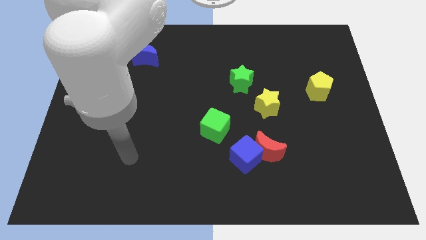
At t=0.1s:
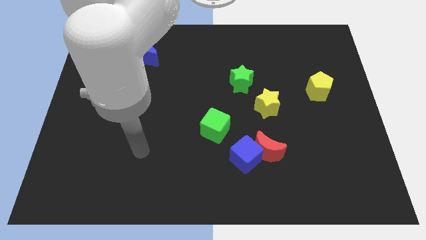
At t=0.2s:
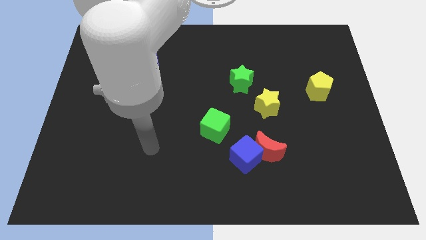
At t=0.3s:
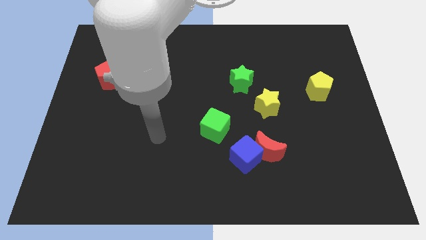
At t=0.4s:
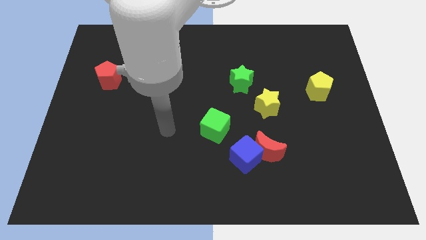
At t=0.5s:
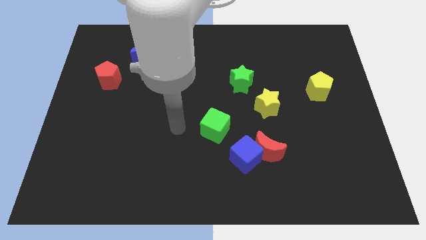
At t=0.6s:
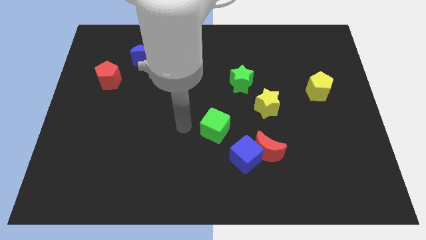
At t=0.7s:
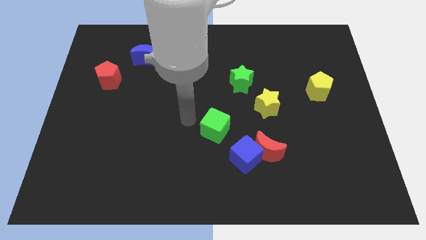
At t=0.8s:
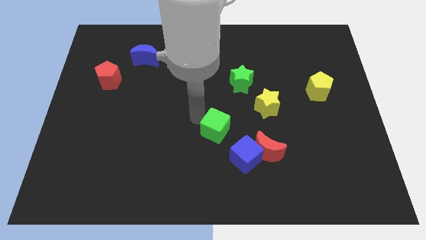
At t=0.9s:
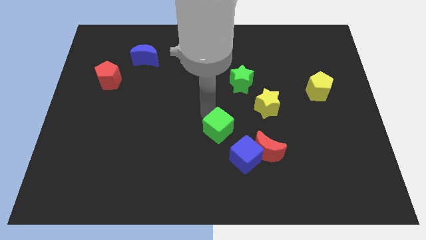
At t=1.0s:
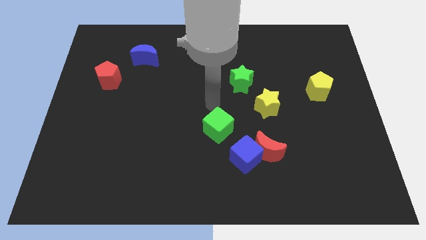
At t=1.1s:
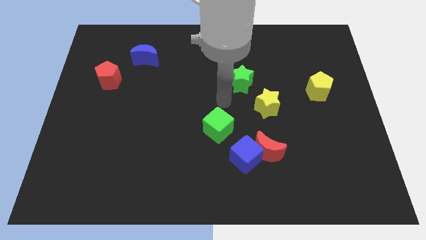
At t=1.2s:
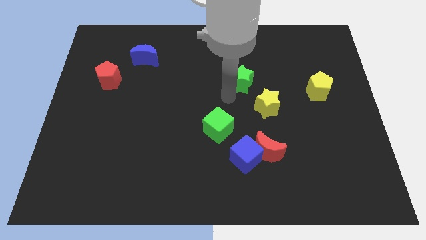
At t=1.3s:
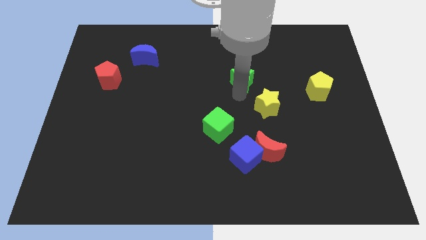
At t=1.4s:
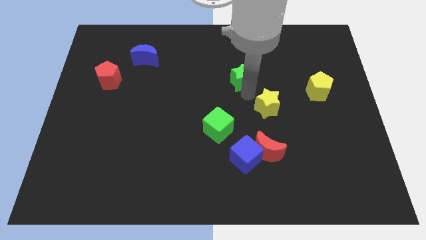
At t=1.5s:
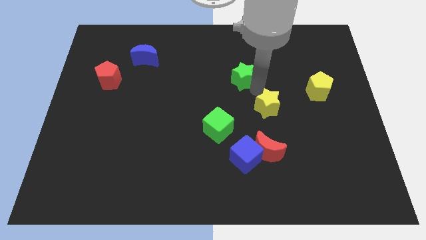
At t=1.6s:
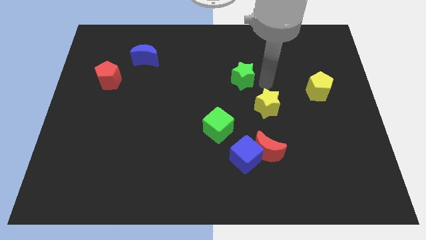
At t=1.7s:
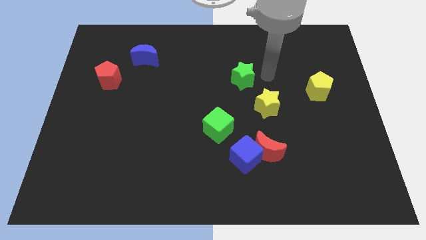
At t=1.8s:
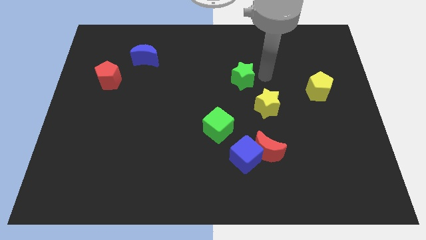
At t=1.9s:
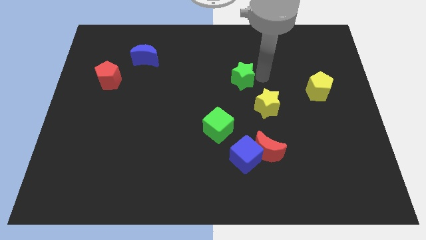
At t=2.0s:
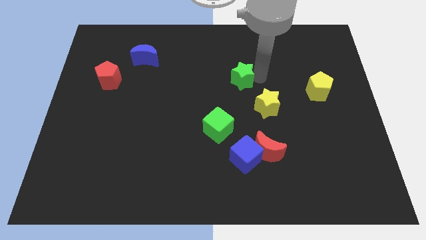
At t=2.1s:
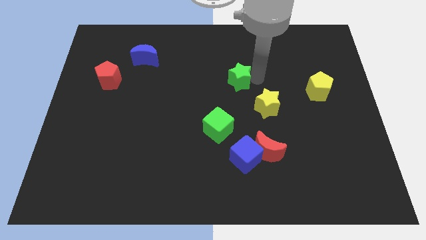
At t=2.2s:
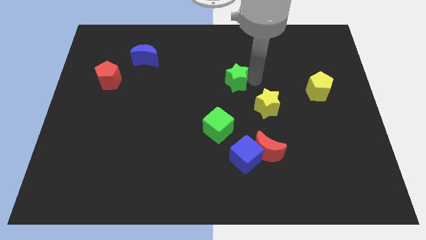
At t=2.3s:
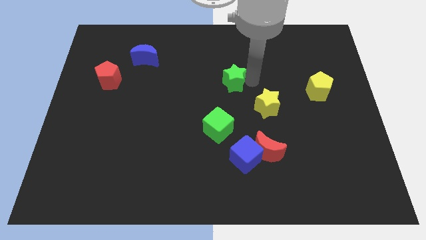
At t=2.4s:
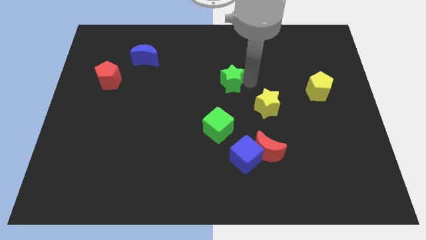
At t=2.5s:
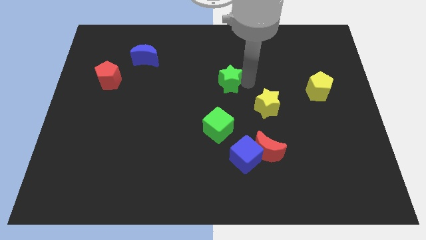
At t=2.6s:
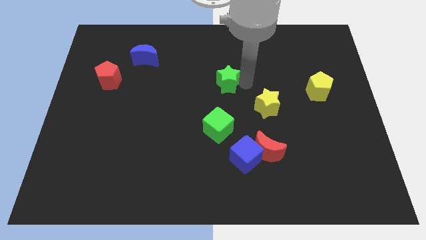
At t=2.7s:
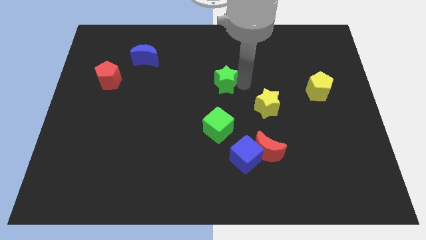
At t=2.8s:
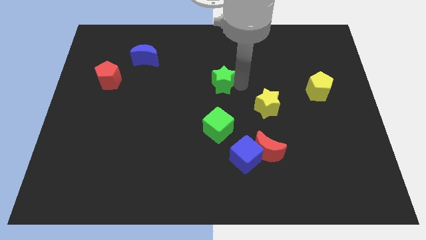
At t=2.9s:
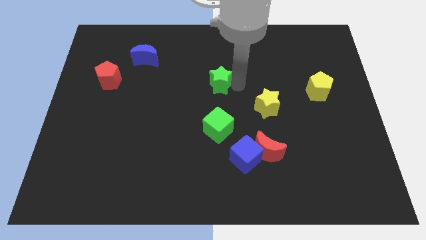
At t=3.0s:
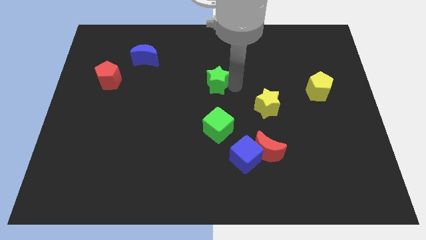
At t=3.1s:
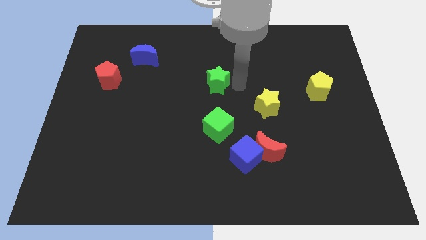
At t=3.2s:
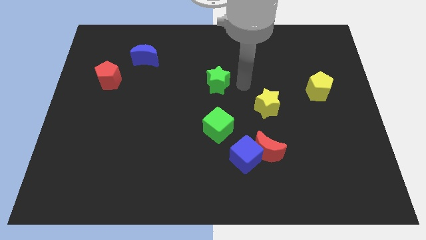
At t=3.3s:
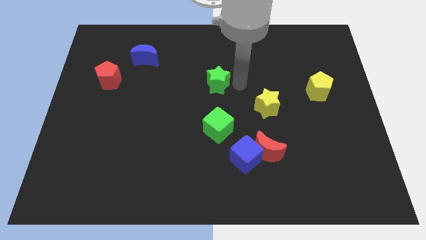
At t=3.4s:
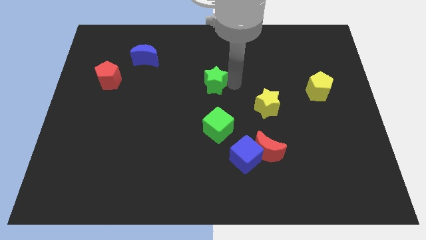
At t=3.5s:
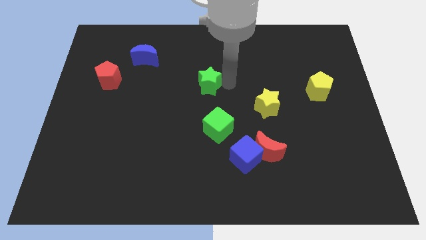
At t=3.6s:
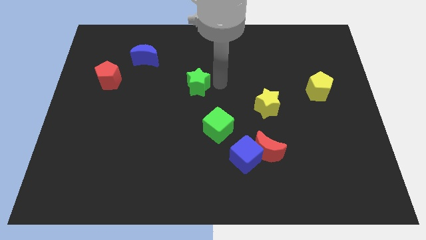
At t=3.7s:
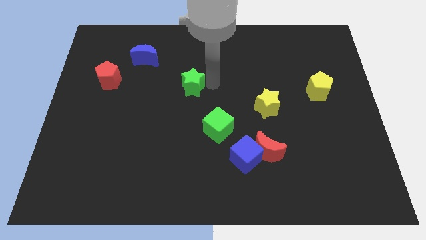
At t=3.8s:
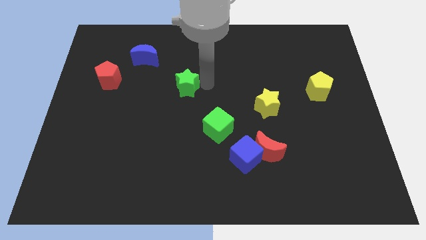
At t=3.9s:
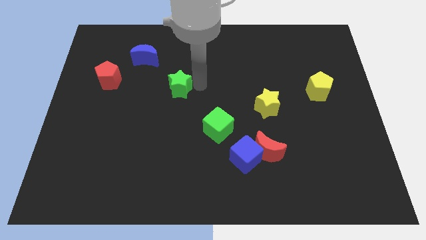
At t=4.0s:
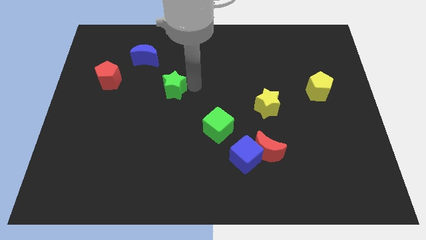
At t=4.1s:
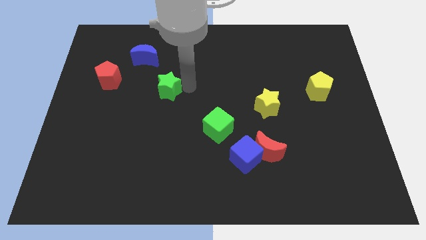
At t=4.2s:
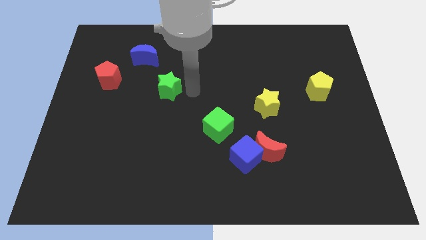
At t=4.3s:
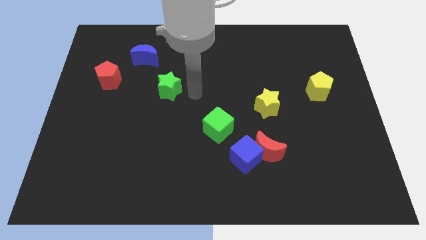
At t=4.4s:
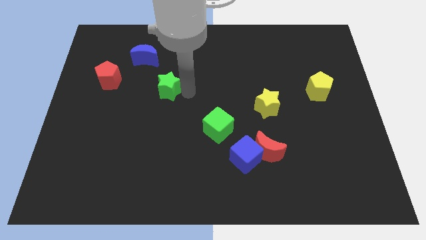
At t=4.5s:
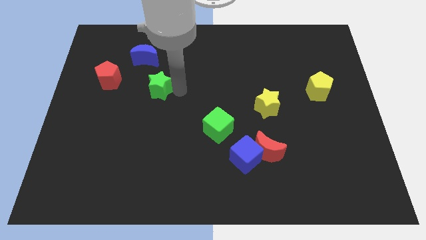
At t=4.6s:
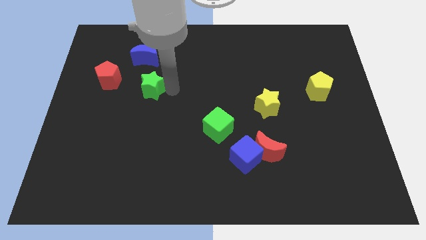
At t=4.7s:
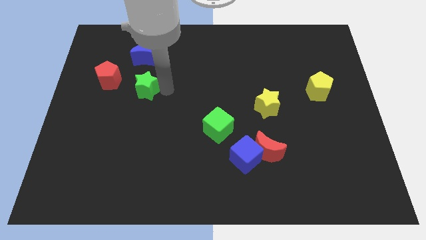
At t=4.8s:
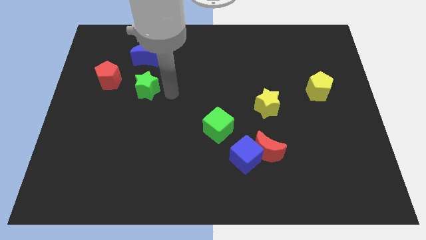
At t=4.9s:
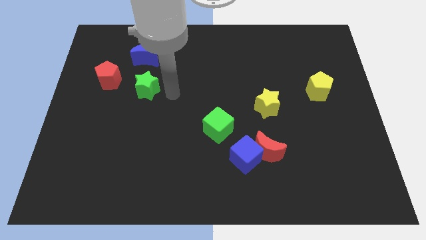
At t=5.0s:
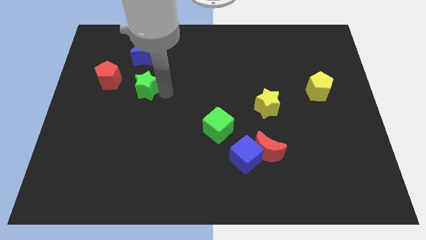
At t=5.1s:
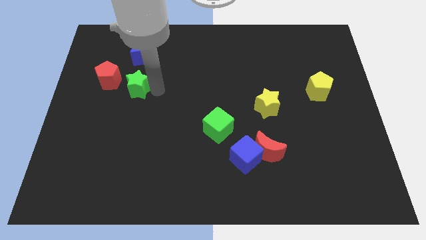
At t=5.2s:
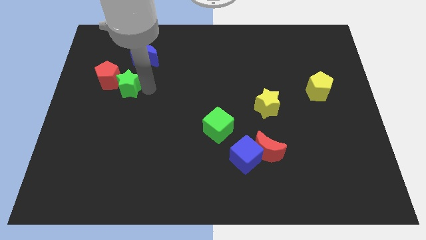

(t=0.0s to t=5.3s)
push the green star to the red pentagon

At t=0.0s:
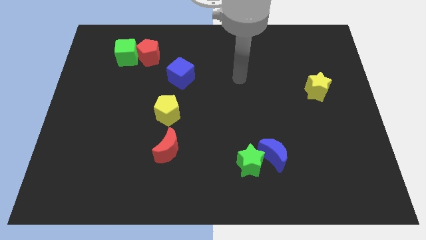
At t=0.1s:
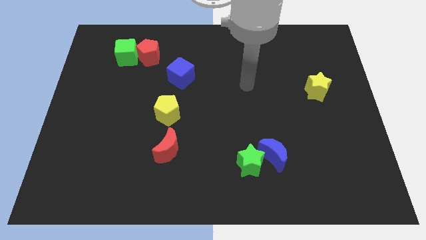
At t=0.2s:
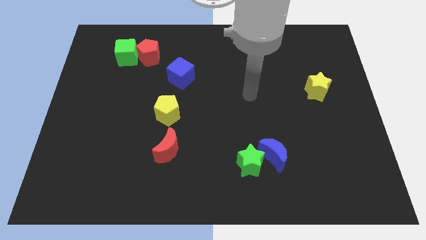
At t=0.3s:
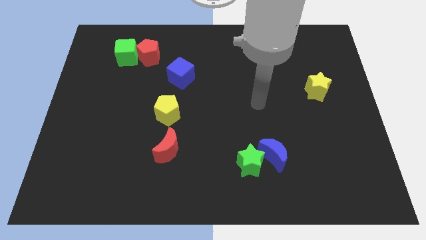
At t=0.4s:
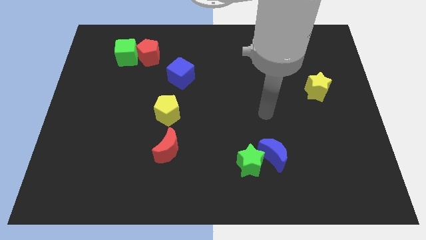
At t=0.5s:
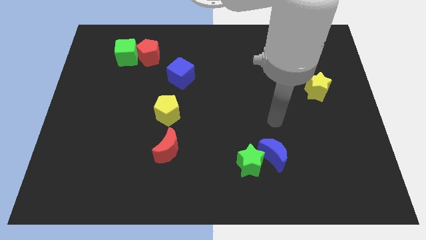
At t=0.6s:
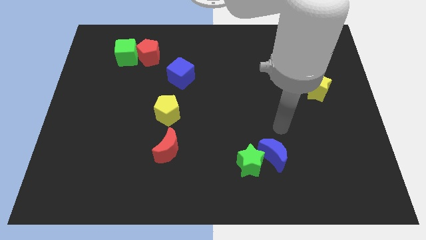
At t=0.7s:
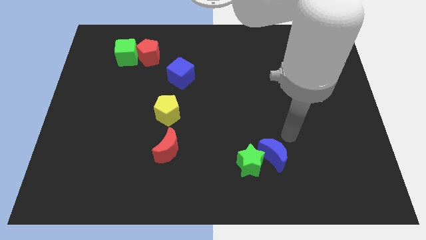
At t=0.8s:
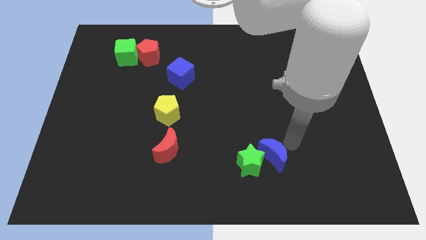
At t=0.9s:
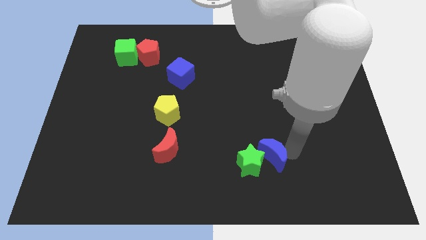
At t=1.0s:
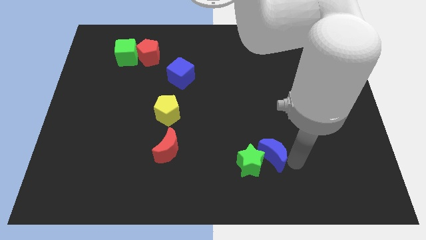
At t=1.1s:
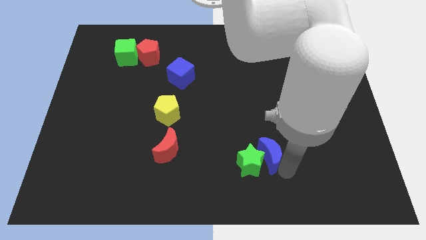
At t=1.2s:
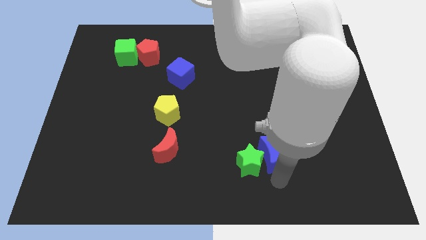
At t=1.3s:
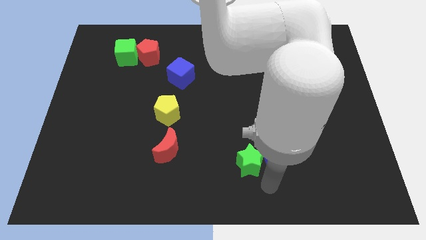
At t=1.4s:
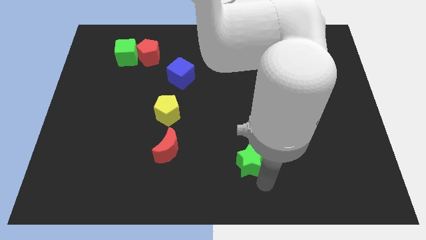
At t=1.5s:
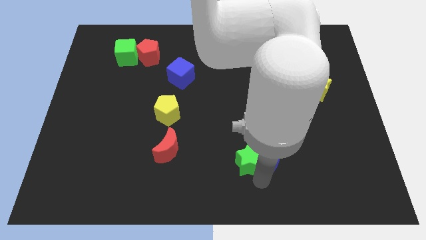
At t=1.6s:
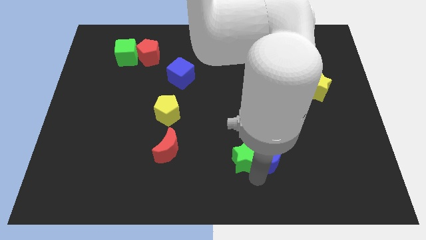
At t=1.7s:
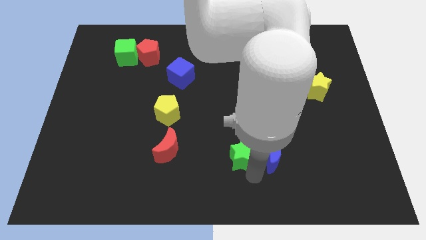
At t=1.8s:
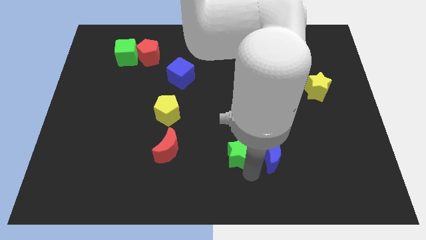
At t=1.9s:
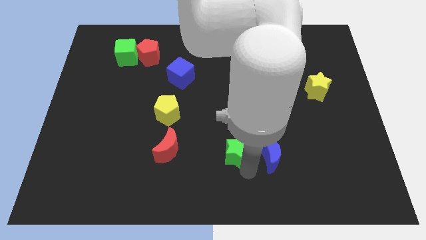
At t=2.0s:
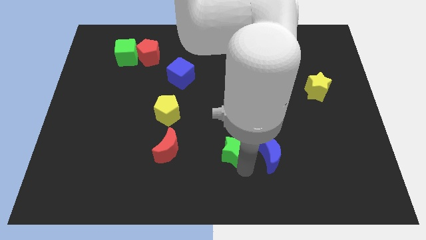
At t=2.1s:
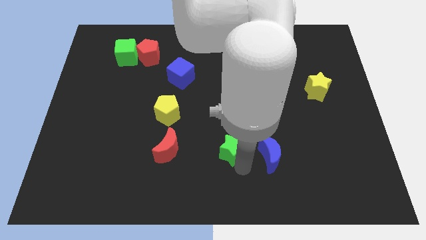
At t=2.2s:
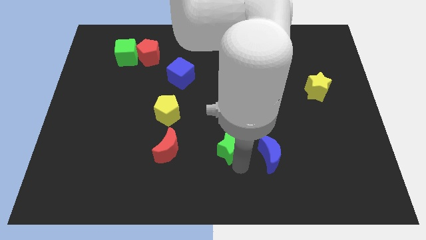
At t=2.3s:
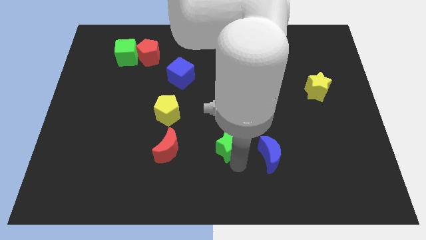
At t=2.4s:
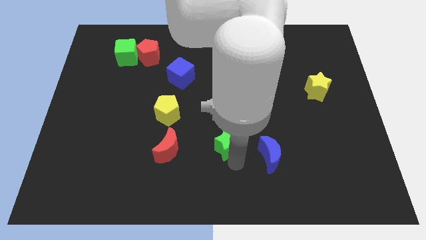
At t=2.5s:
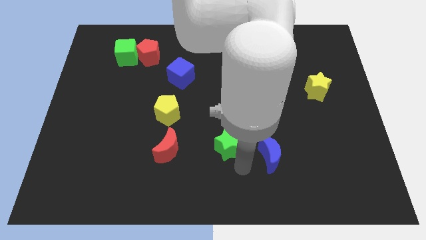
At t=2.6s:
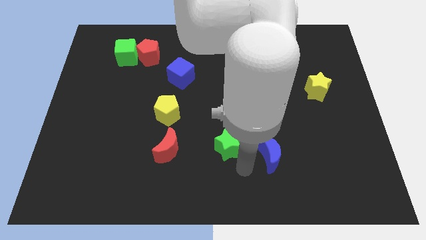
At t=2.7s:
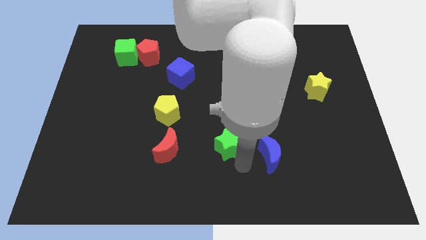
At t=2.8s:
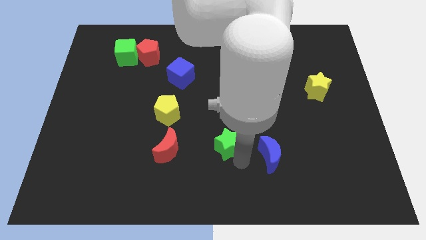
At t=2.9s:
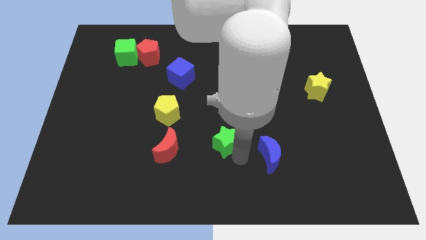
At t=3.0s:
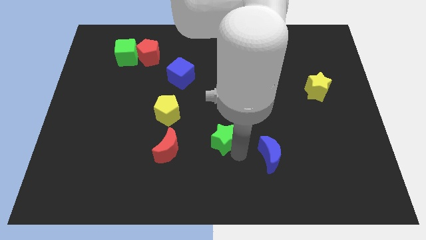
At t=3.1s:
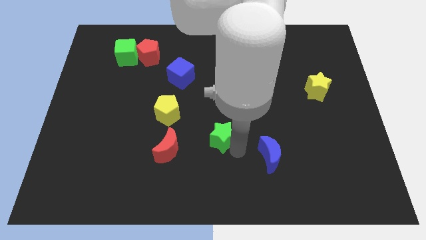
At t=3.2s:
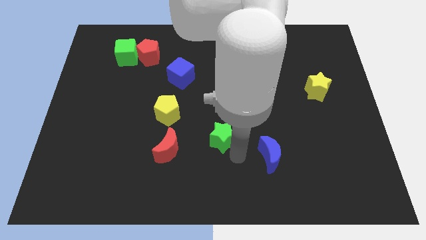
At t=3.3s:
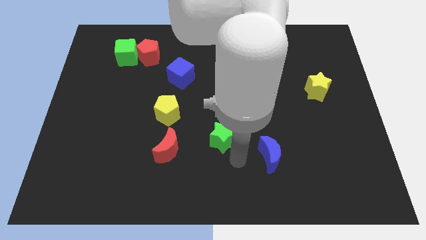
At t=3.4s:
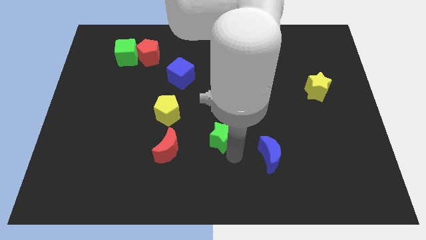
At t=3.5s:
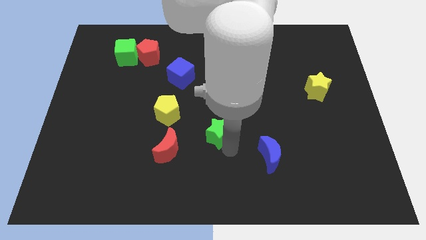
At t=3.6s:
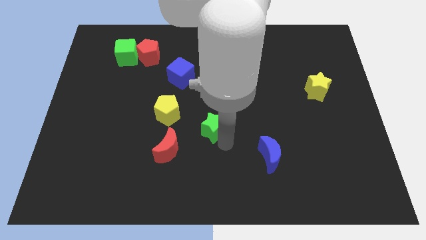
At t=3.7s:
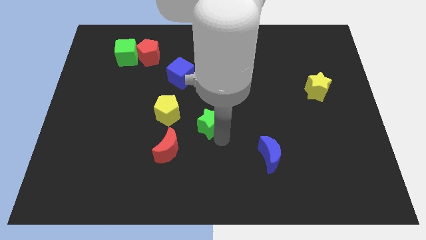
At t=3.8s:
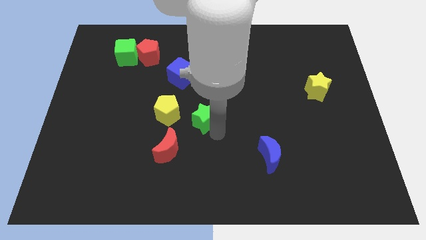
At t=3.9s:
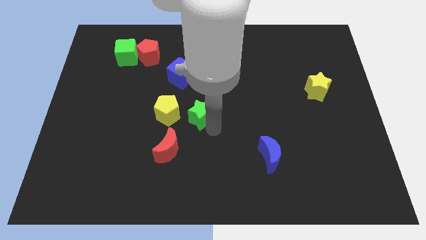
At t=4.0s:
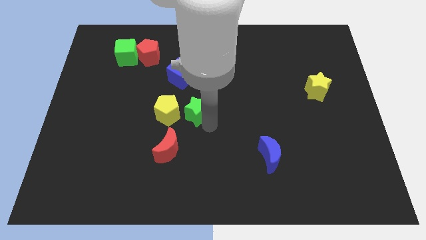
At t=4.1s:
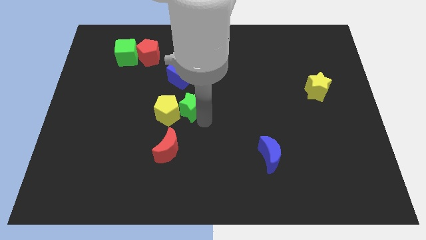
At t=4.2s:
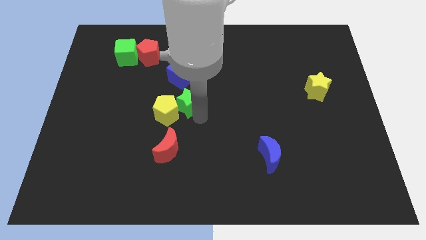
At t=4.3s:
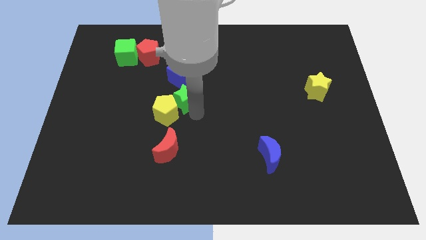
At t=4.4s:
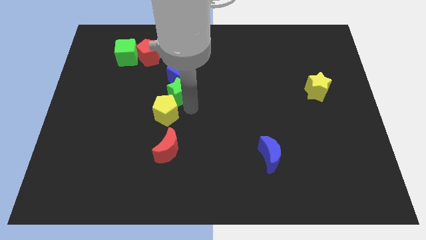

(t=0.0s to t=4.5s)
put the green star to the blue cube
